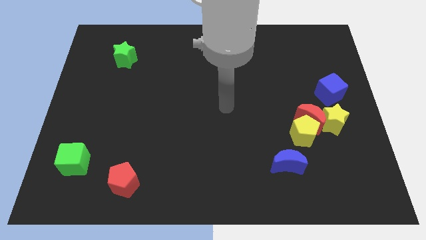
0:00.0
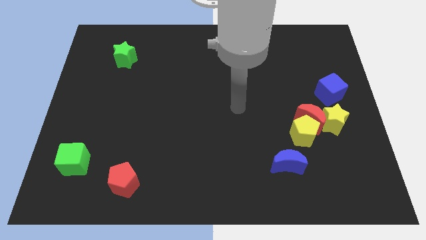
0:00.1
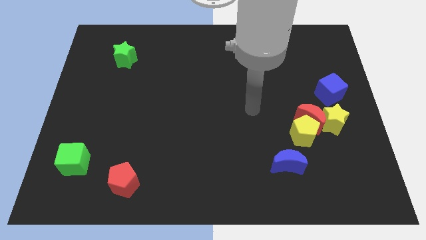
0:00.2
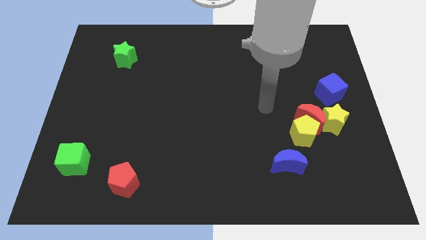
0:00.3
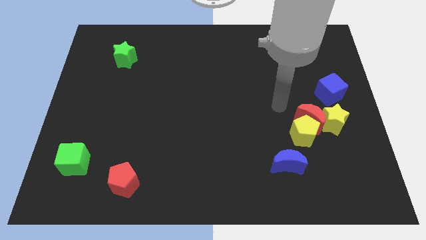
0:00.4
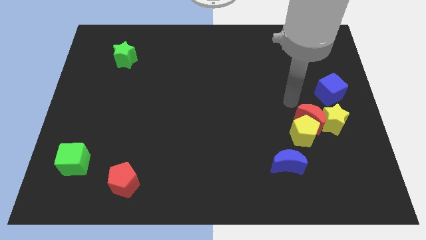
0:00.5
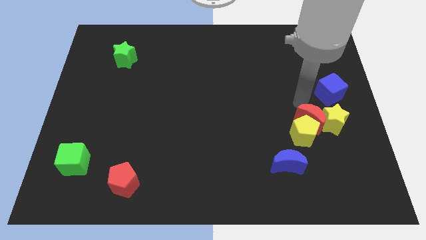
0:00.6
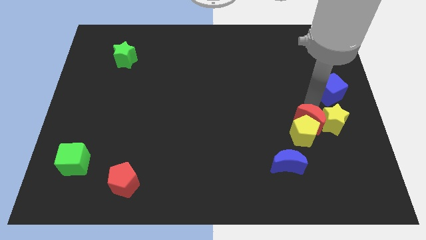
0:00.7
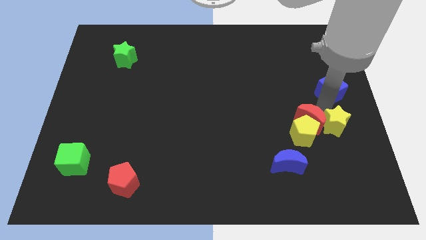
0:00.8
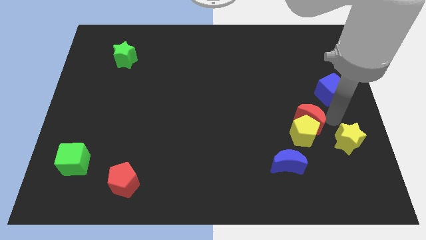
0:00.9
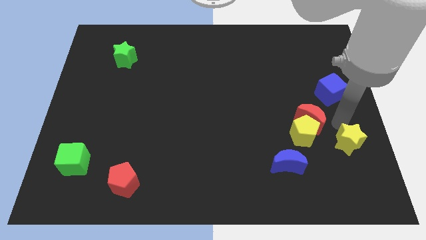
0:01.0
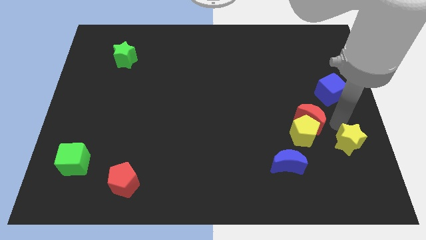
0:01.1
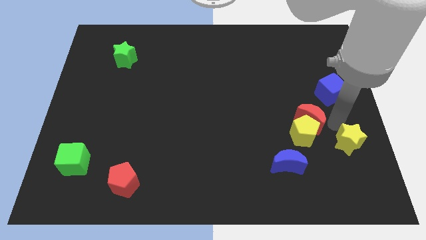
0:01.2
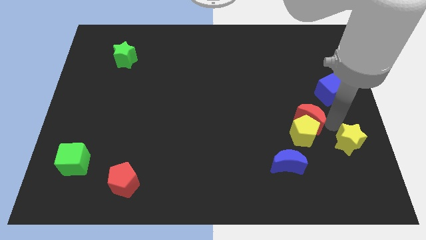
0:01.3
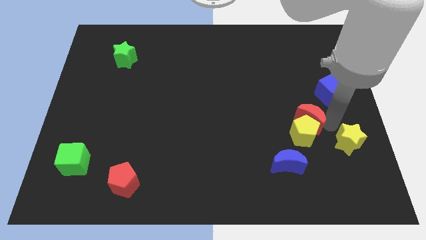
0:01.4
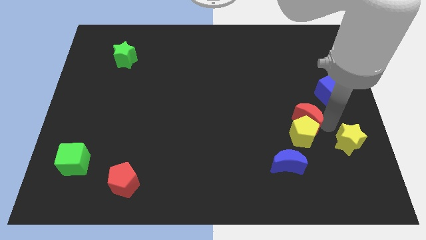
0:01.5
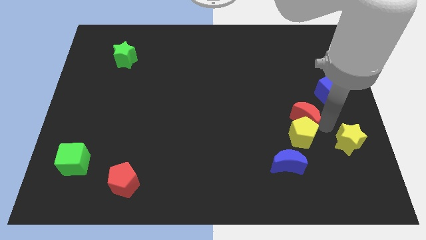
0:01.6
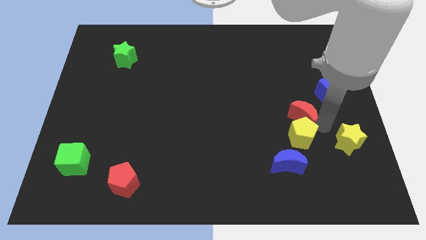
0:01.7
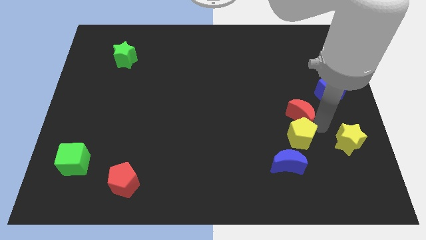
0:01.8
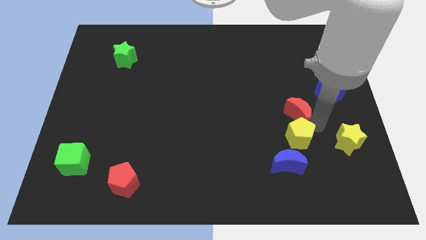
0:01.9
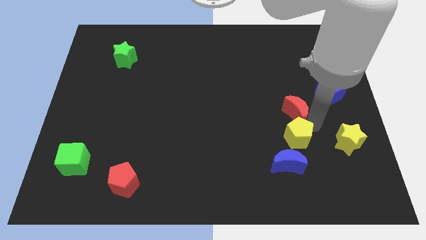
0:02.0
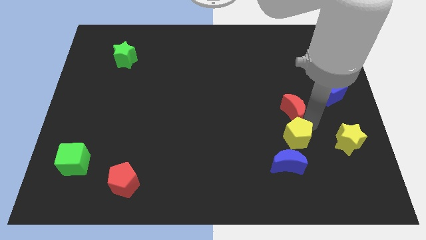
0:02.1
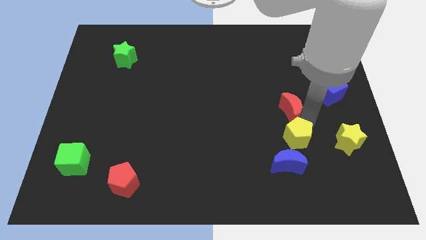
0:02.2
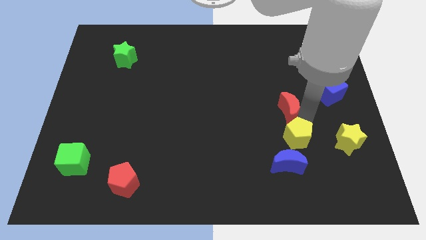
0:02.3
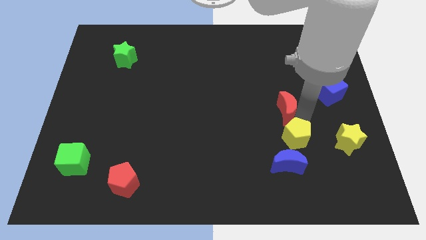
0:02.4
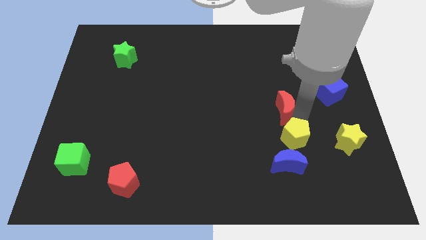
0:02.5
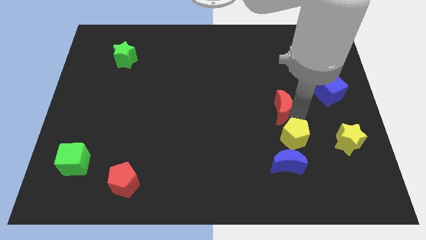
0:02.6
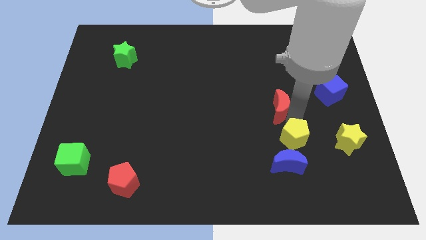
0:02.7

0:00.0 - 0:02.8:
pull the red moon apart from the clump

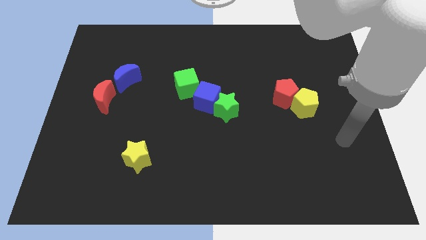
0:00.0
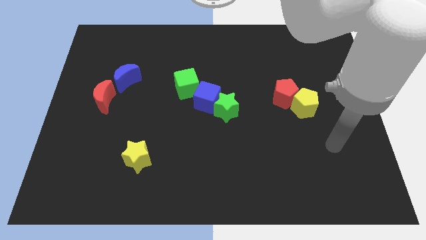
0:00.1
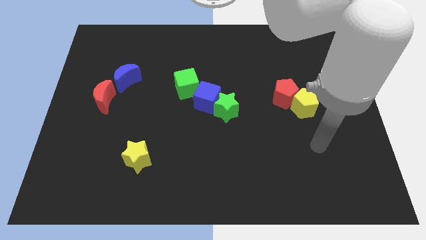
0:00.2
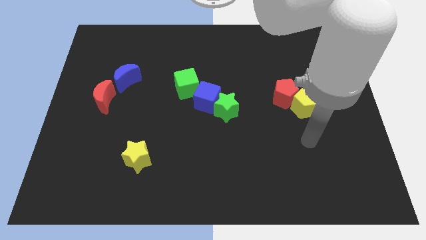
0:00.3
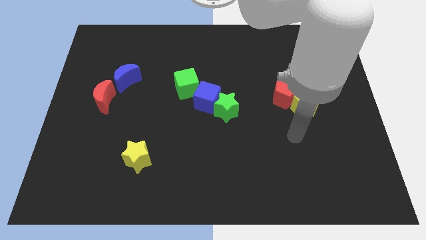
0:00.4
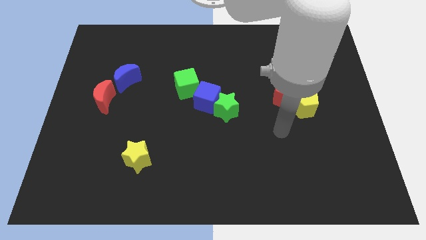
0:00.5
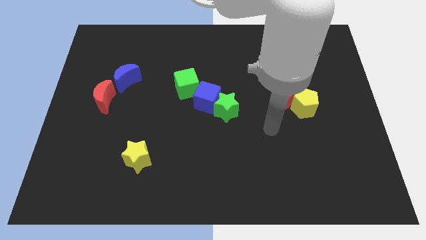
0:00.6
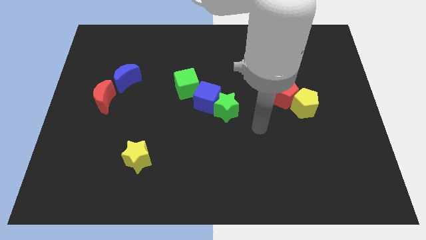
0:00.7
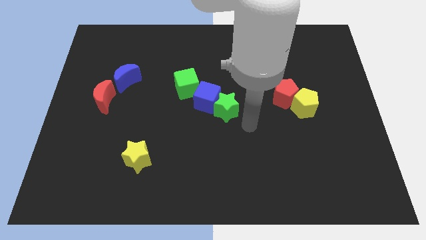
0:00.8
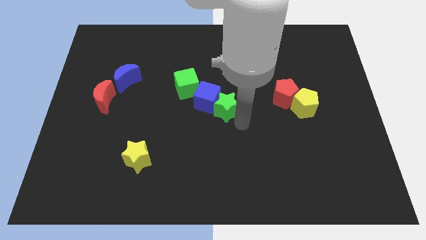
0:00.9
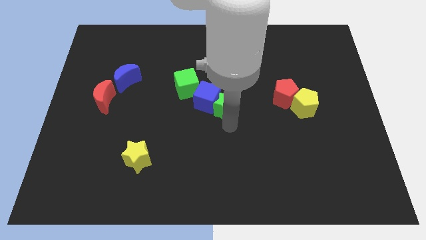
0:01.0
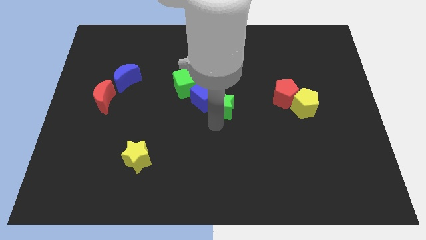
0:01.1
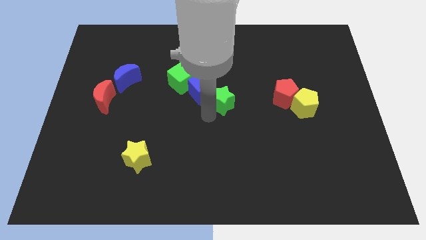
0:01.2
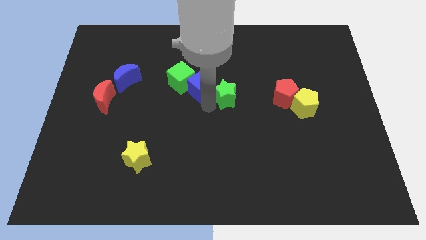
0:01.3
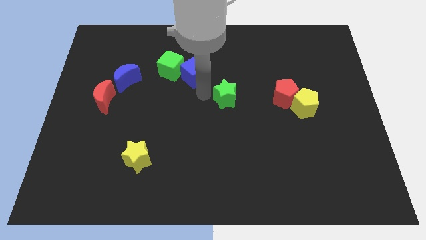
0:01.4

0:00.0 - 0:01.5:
move the green star away from the blue cube

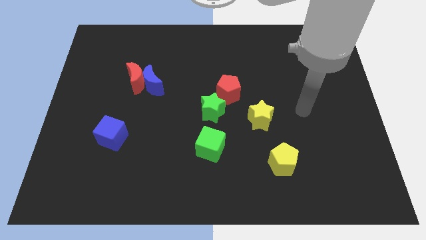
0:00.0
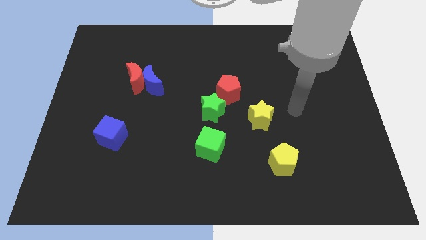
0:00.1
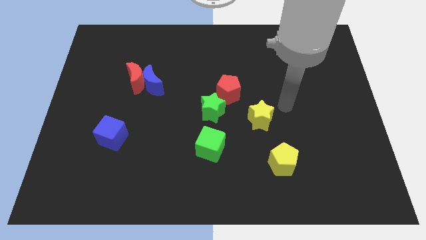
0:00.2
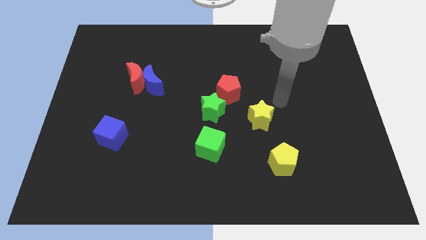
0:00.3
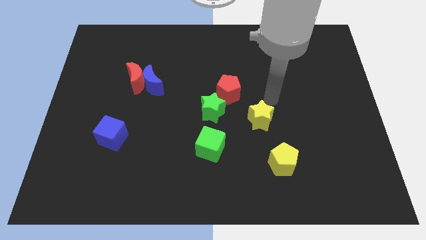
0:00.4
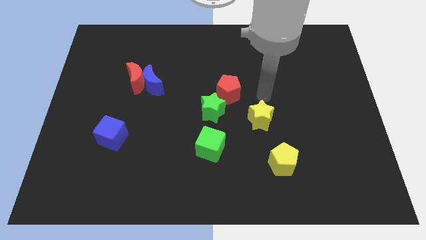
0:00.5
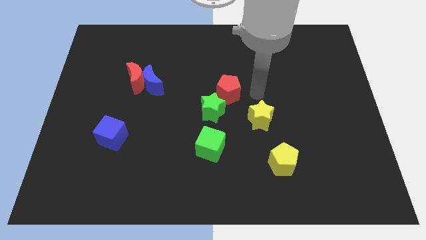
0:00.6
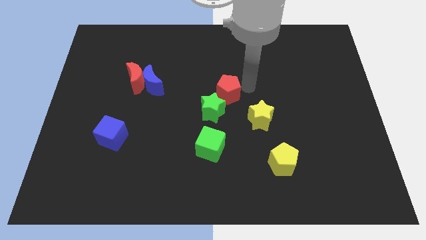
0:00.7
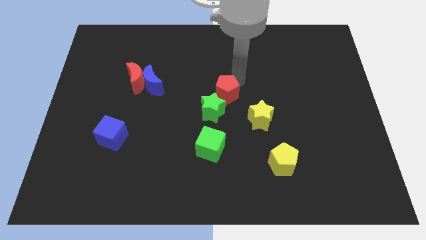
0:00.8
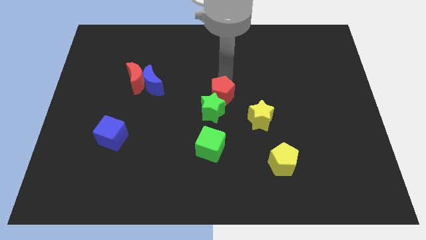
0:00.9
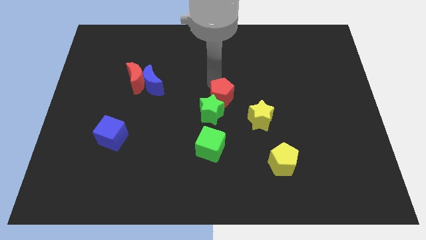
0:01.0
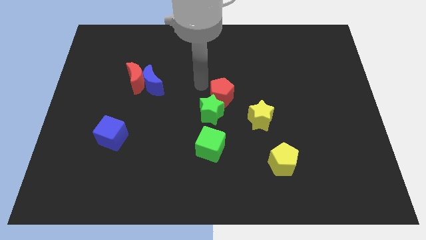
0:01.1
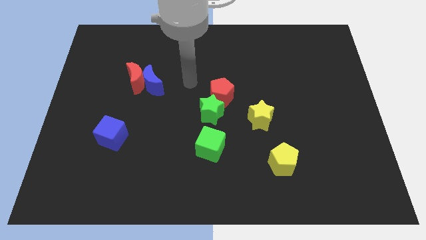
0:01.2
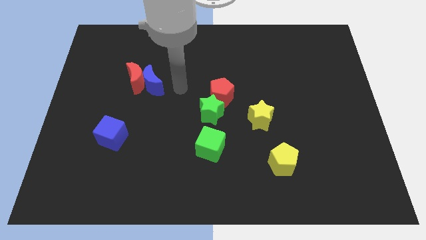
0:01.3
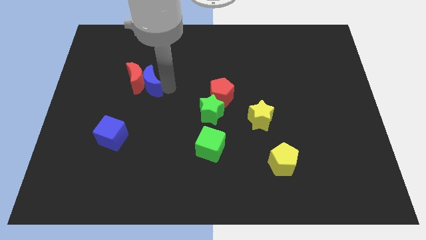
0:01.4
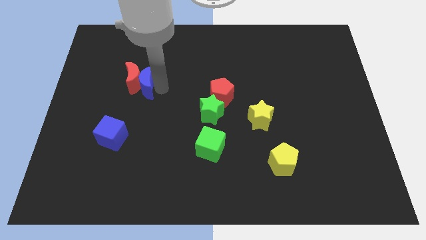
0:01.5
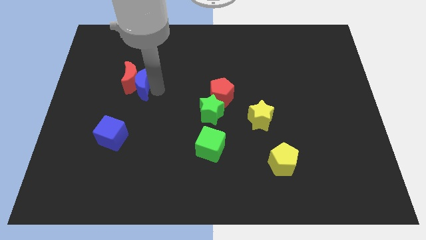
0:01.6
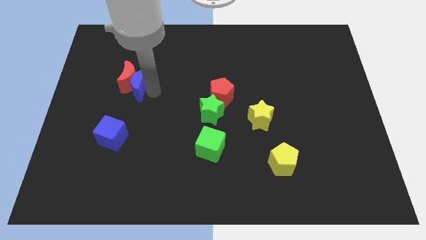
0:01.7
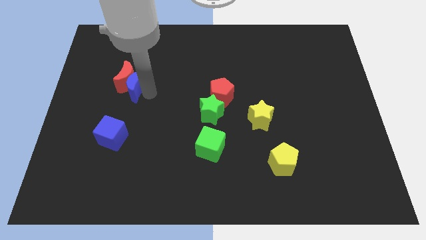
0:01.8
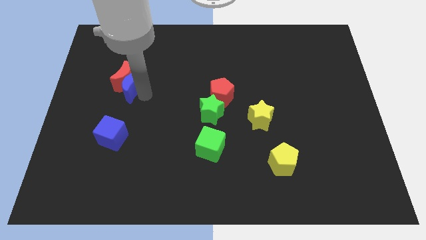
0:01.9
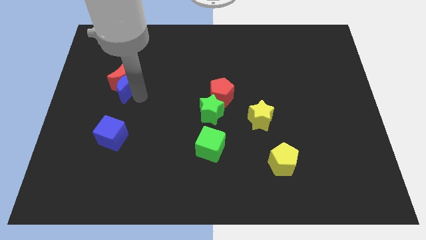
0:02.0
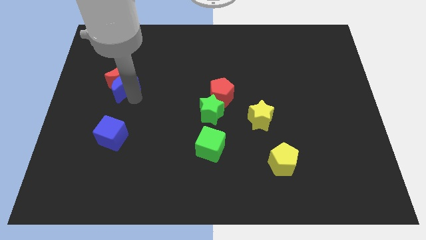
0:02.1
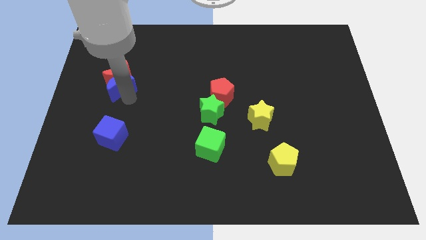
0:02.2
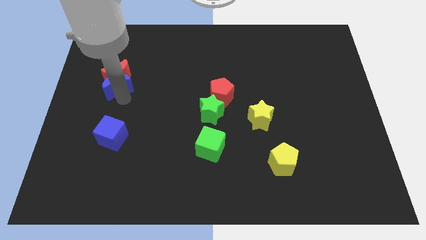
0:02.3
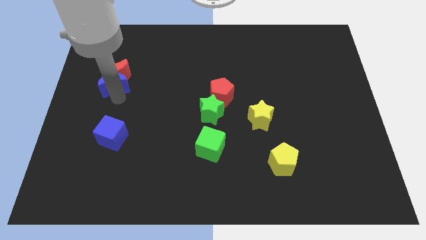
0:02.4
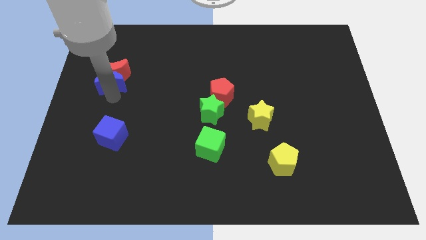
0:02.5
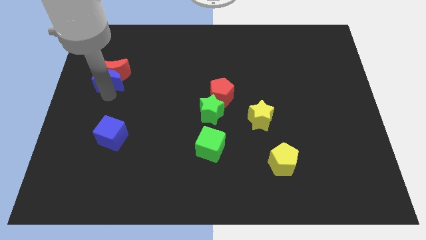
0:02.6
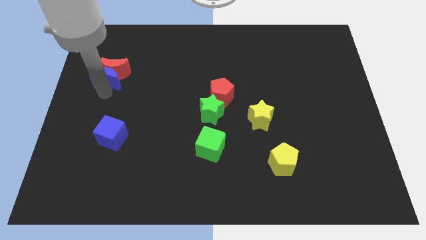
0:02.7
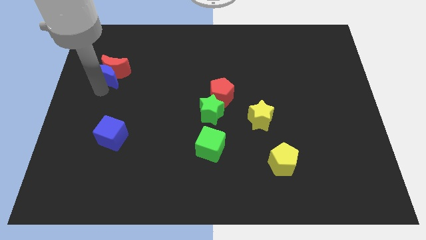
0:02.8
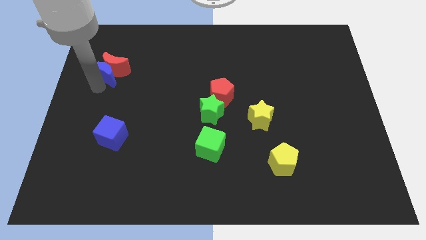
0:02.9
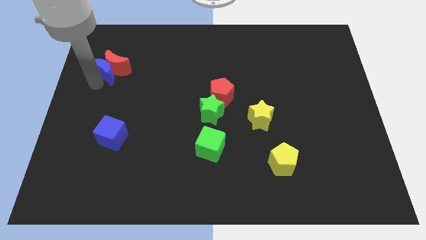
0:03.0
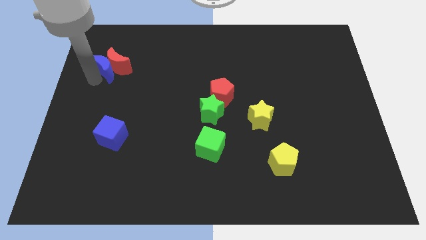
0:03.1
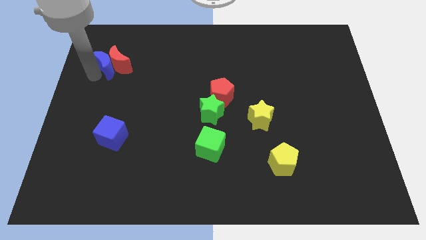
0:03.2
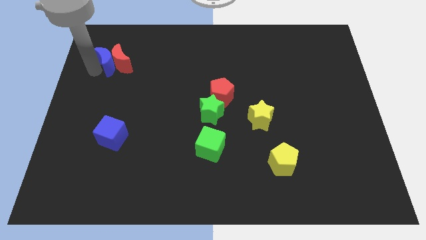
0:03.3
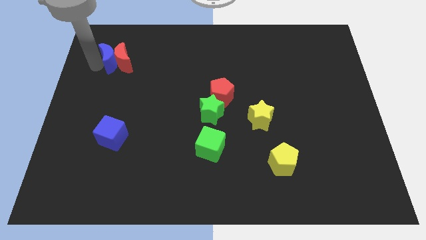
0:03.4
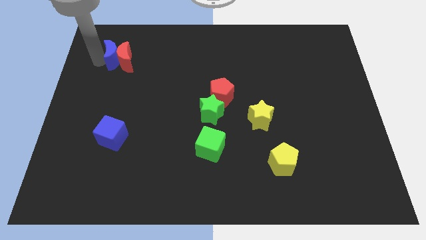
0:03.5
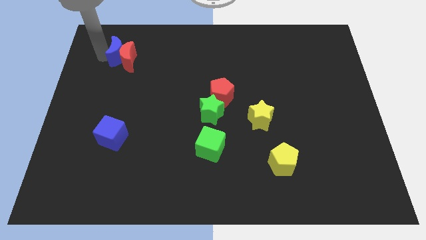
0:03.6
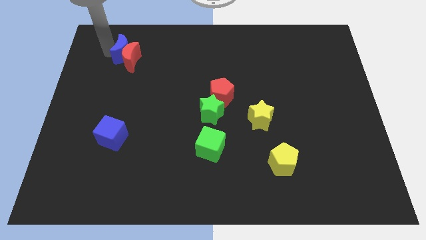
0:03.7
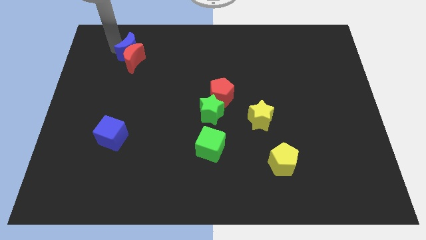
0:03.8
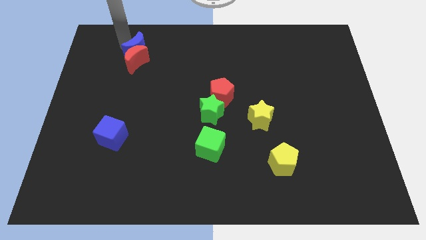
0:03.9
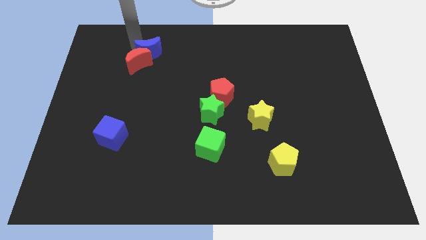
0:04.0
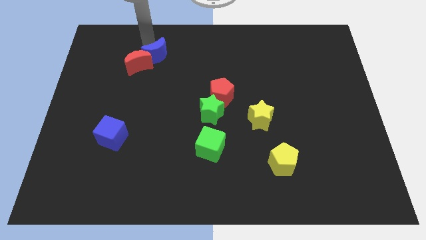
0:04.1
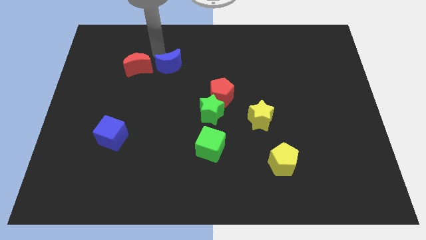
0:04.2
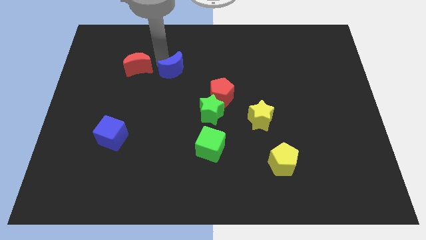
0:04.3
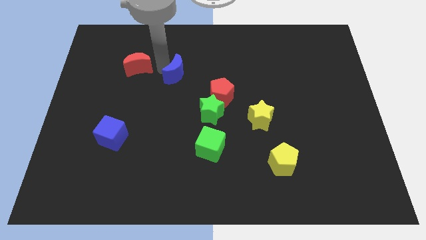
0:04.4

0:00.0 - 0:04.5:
move the red moon away from the blue moon

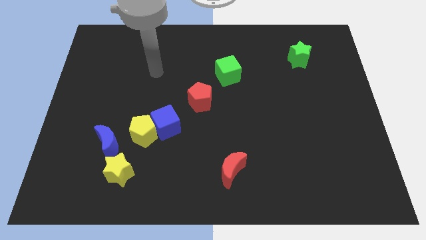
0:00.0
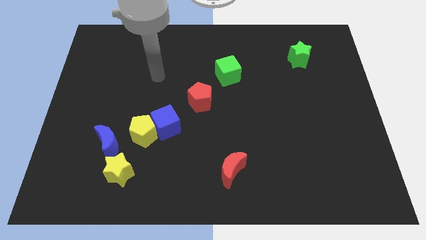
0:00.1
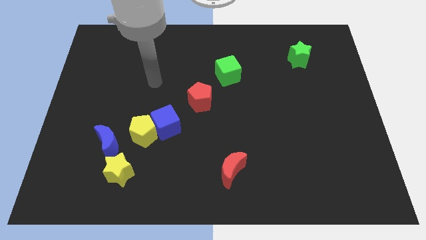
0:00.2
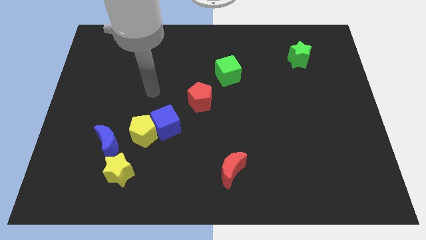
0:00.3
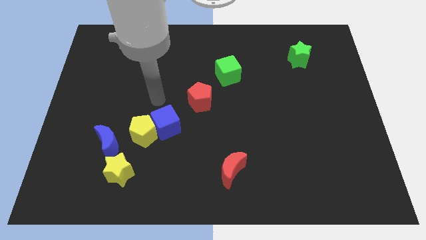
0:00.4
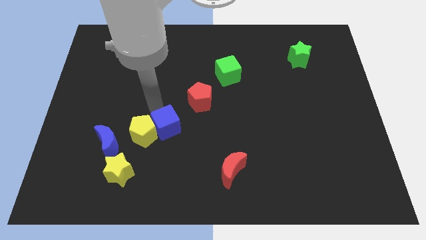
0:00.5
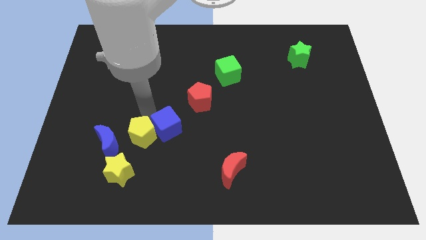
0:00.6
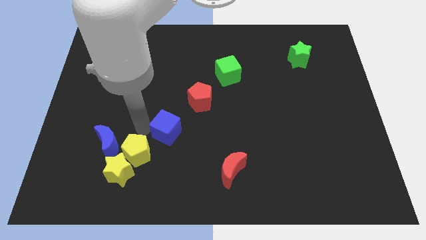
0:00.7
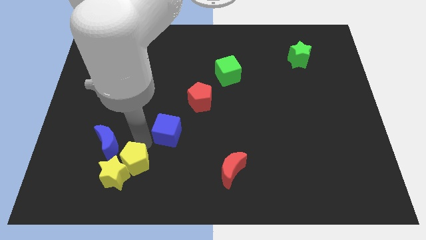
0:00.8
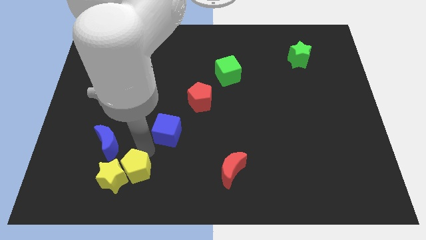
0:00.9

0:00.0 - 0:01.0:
move the blue cube away from the yellow pentagon
